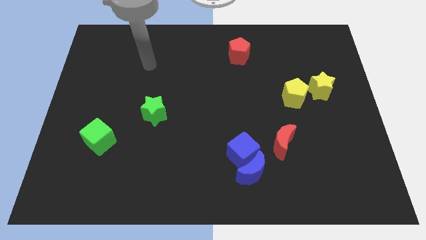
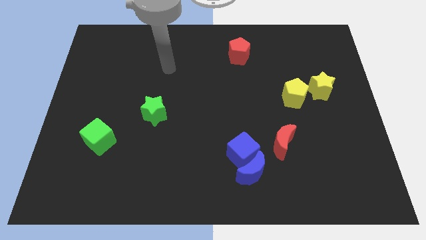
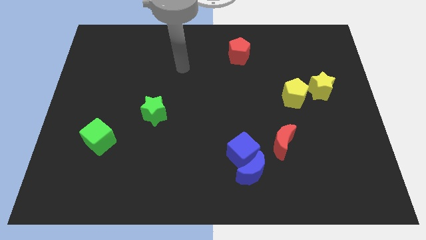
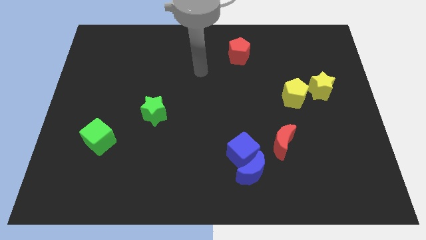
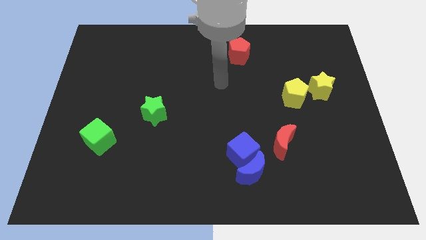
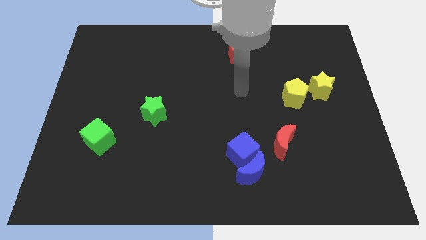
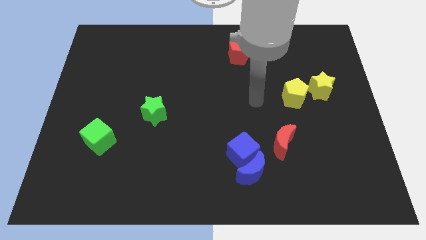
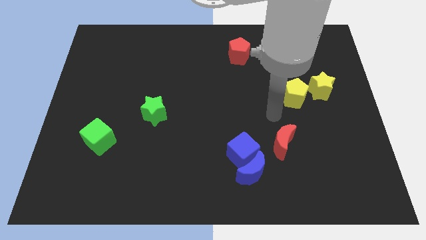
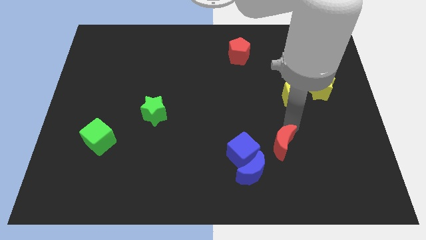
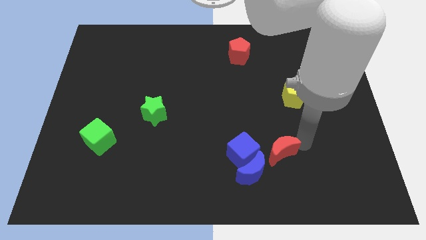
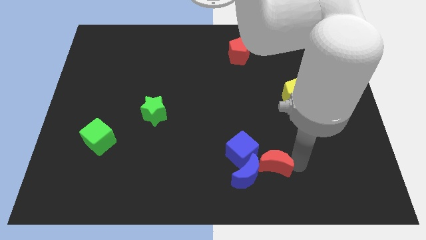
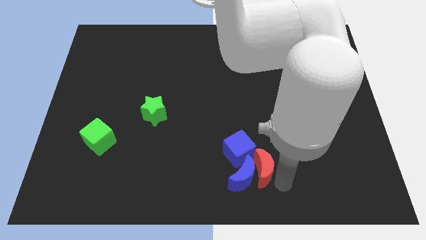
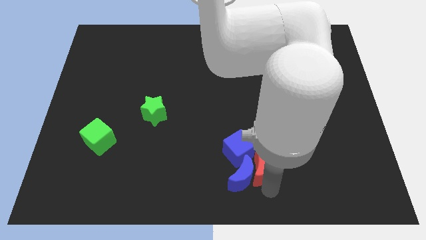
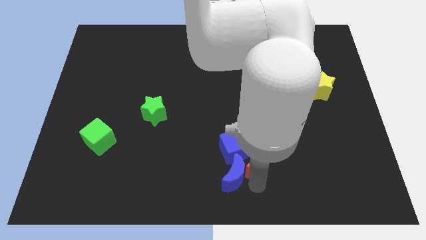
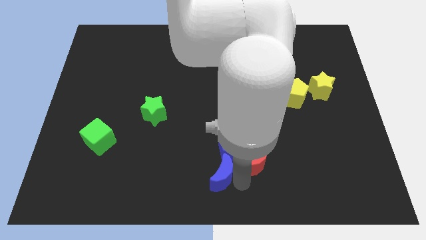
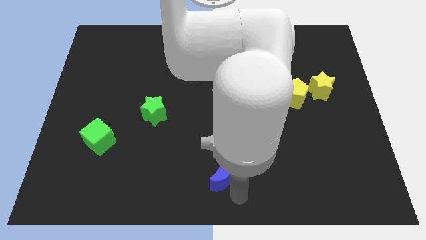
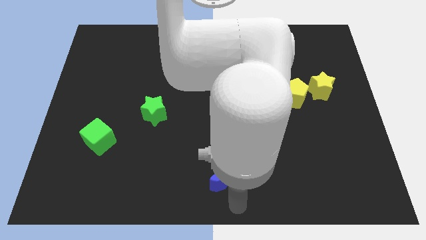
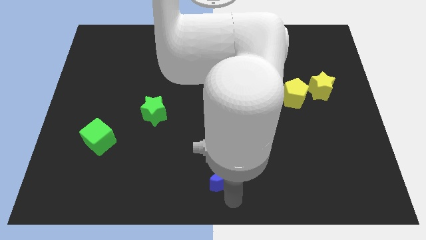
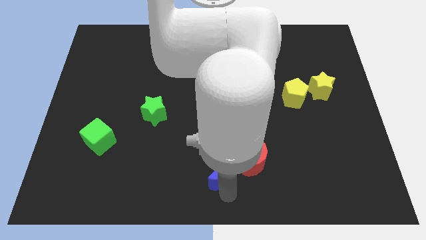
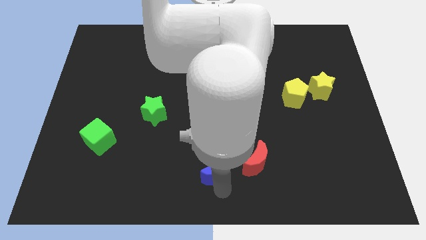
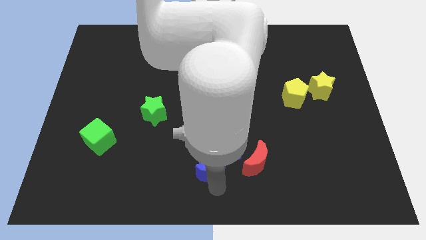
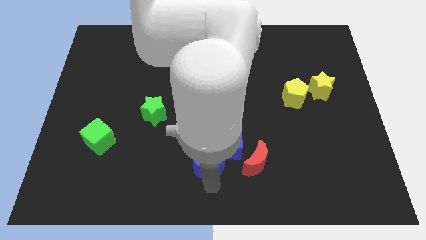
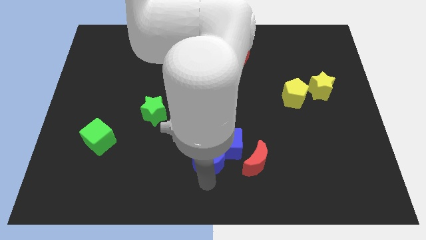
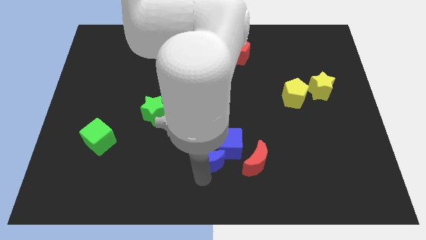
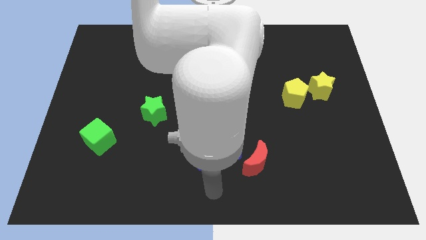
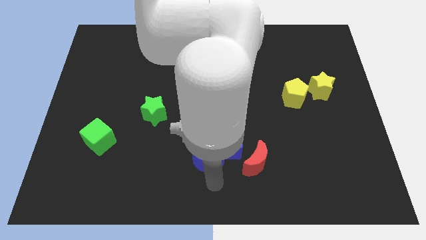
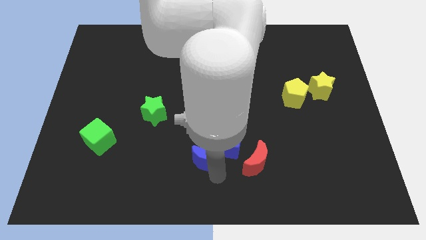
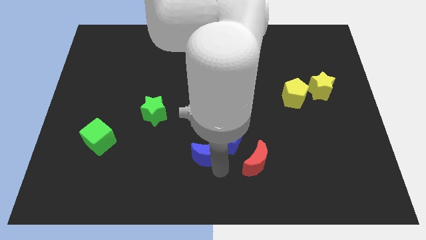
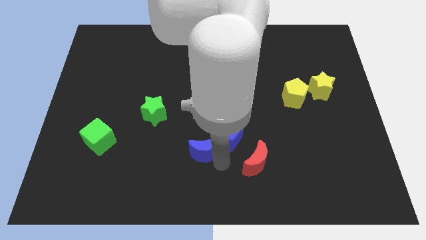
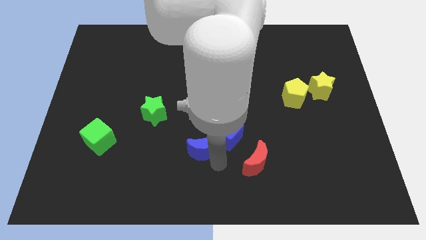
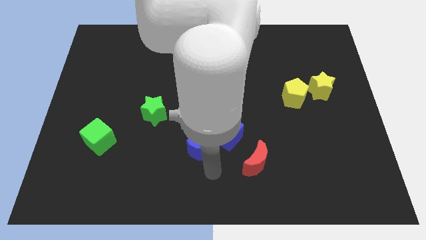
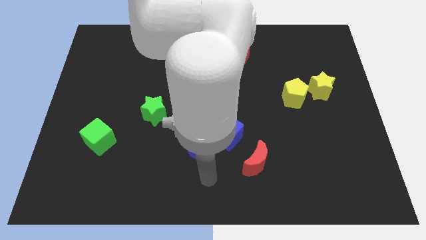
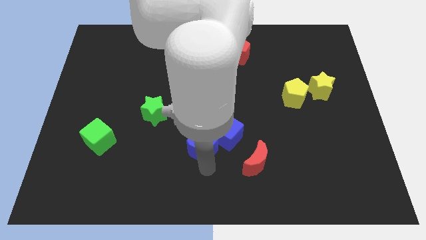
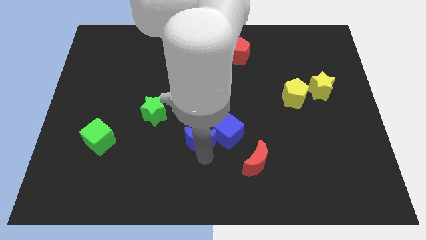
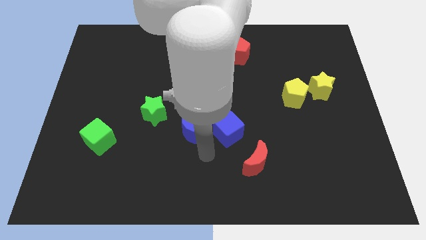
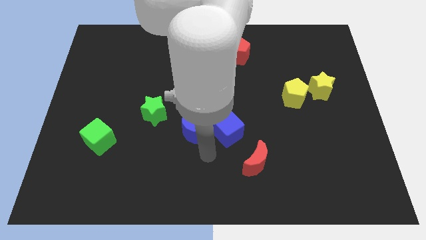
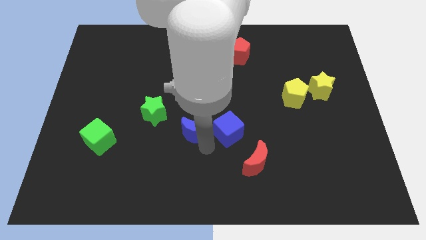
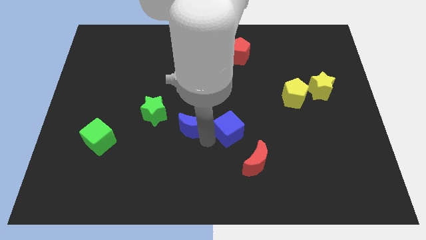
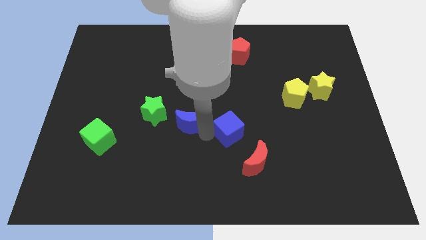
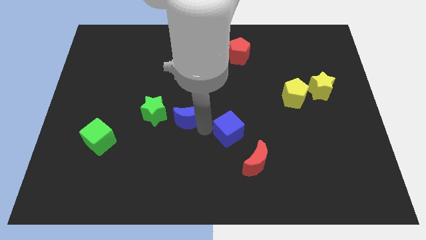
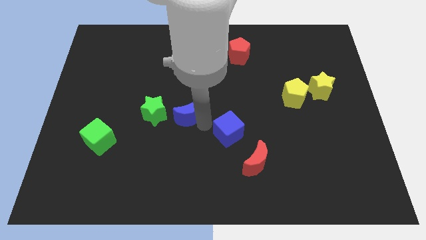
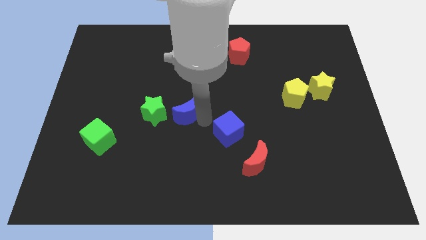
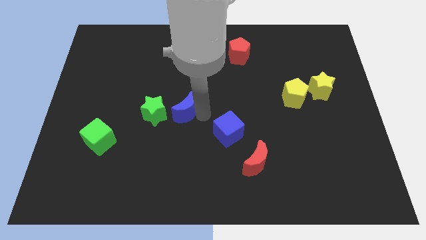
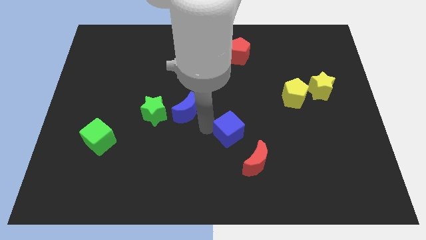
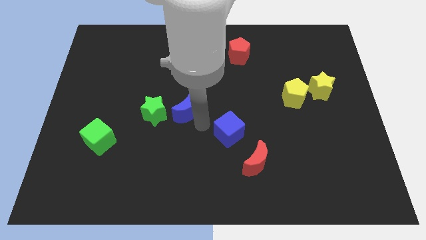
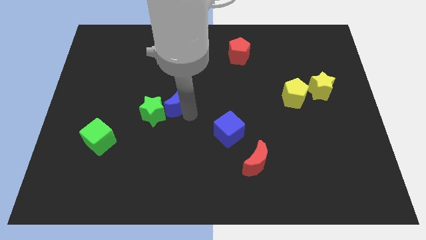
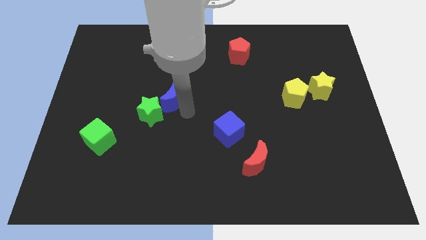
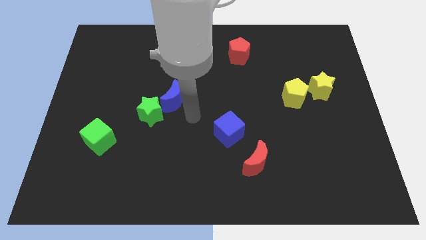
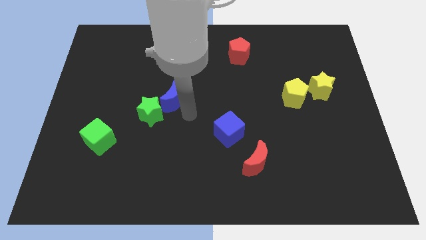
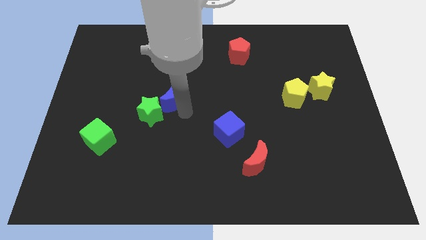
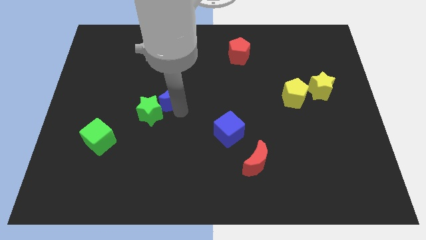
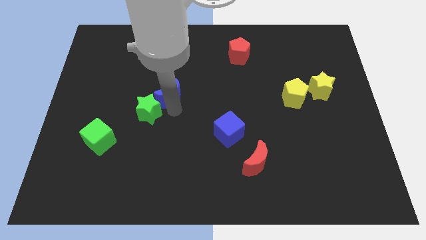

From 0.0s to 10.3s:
push the blue moon to the top side of the green star

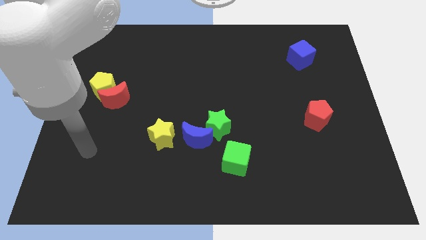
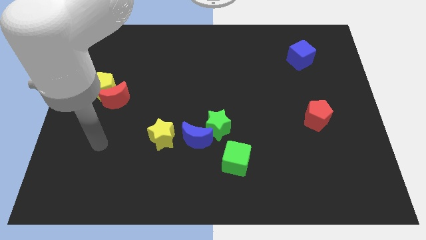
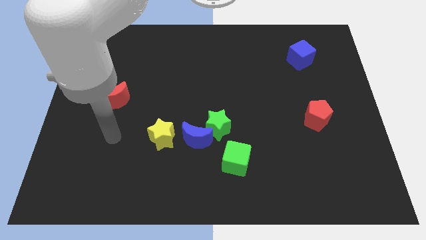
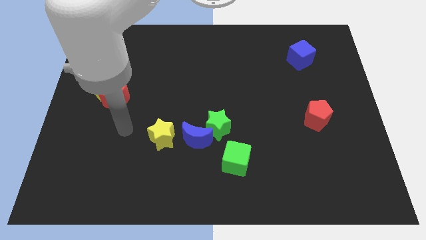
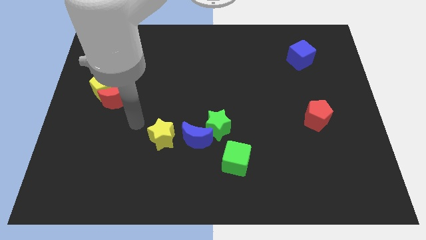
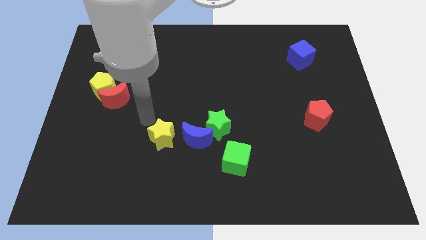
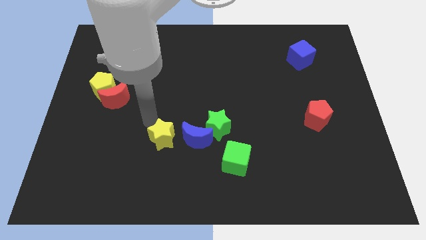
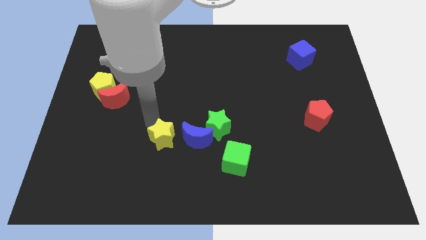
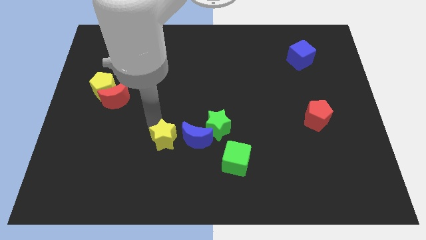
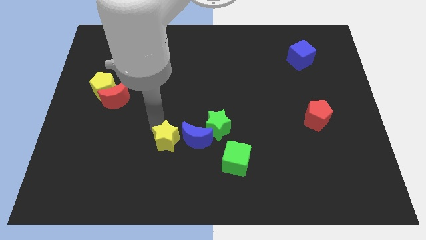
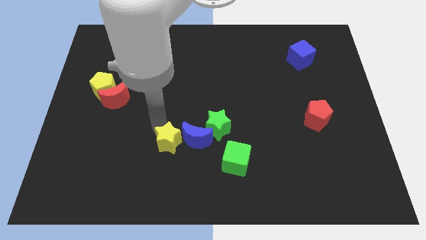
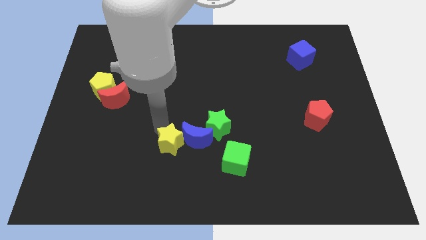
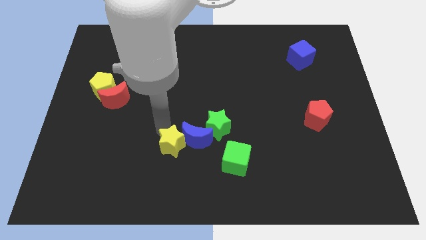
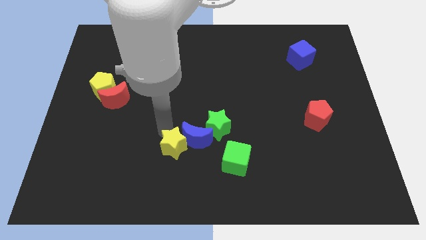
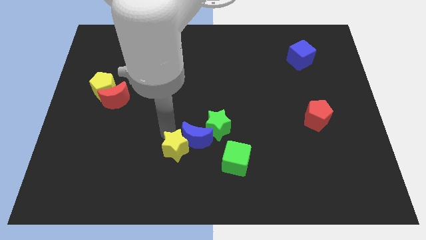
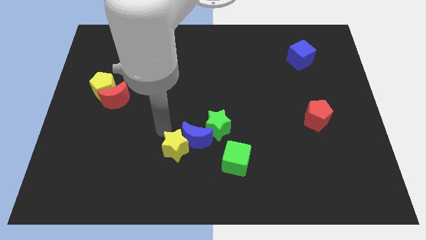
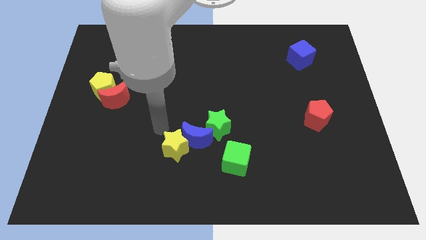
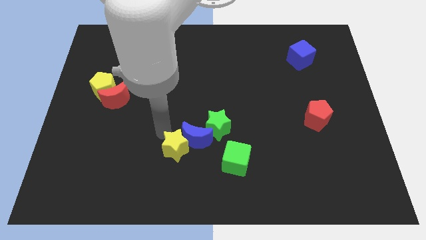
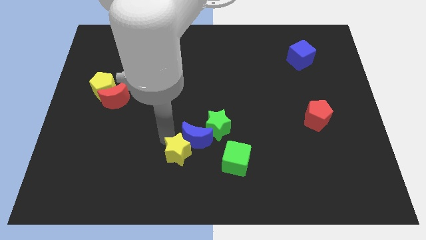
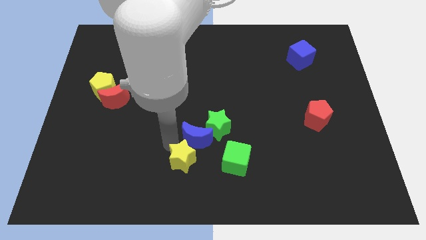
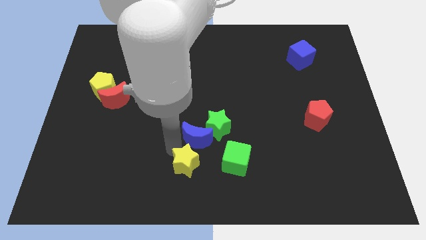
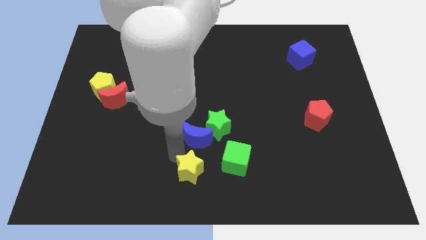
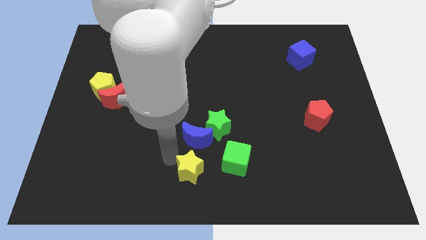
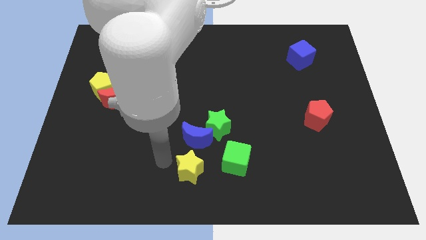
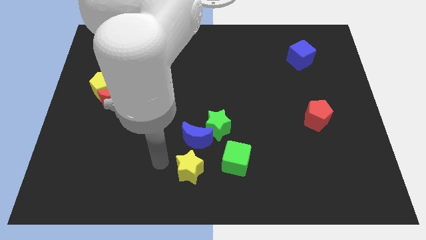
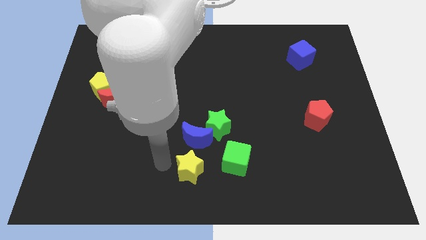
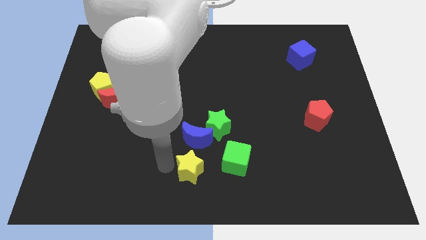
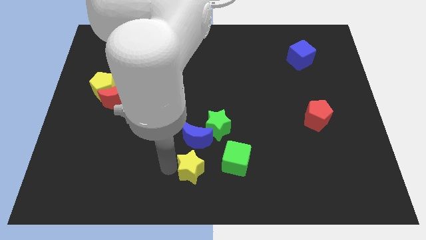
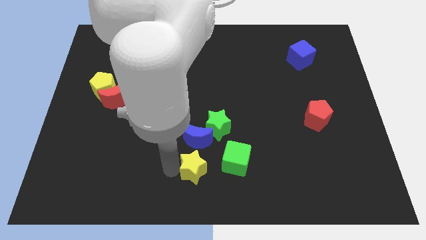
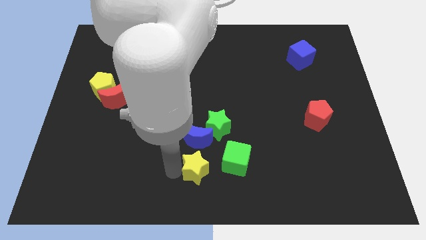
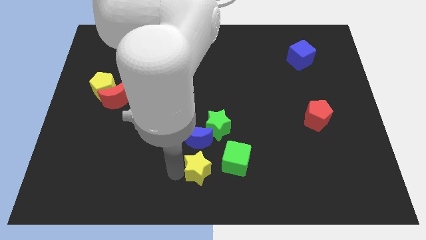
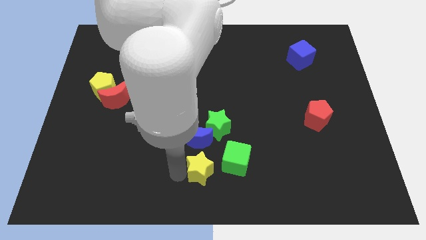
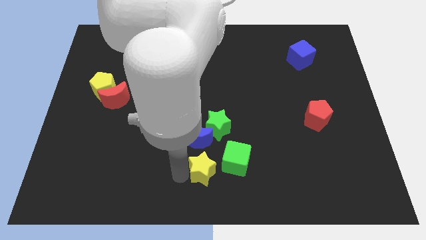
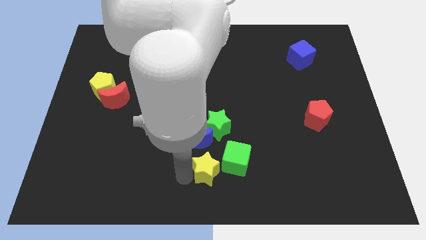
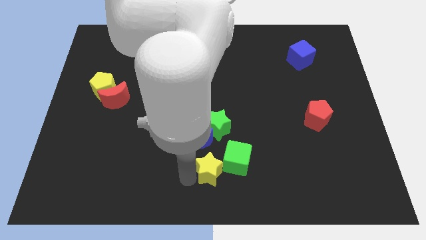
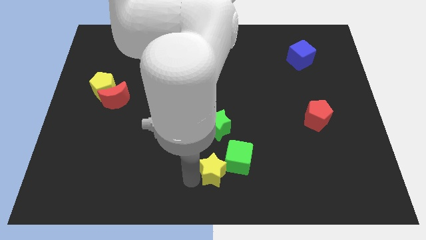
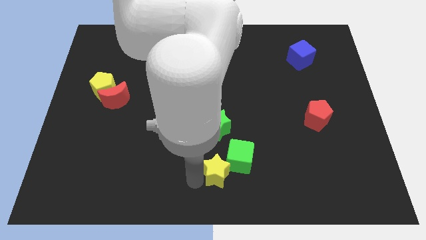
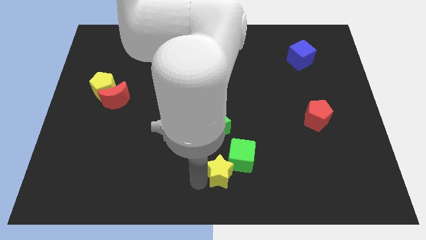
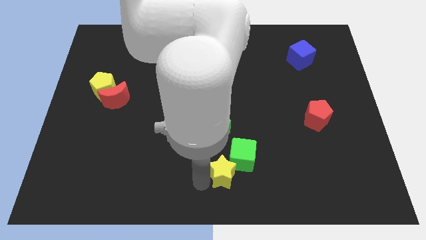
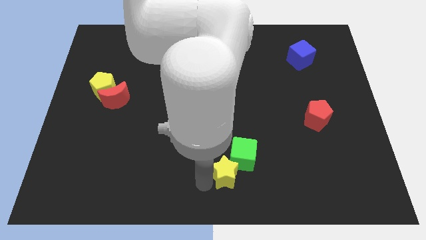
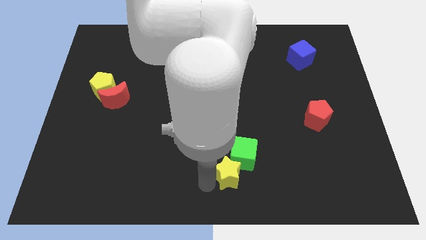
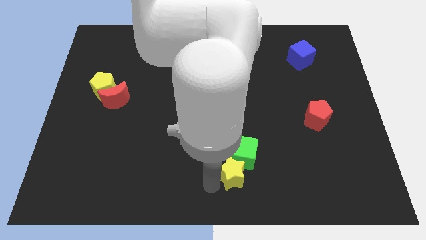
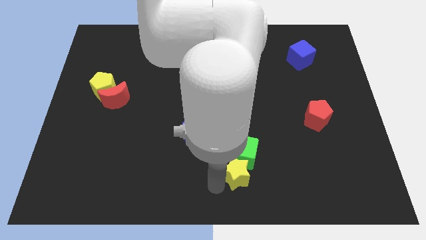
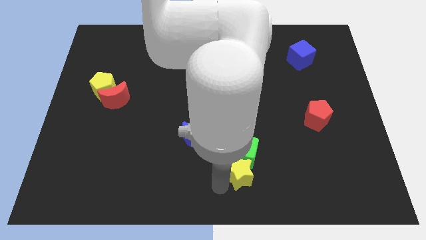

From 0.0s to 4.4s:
slide the yellow star to the bottom right side of the green cube
